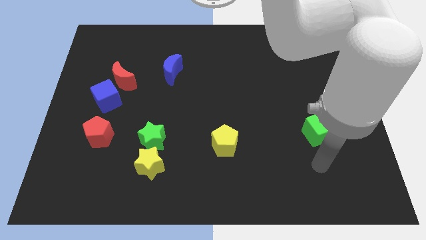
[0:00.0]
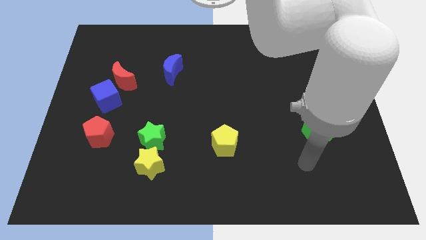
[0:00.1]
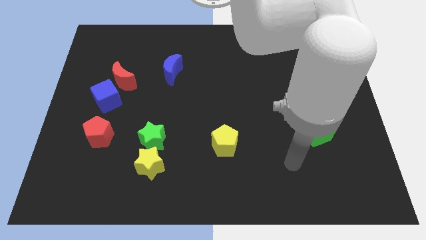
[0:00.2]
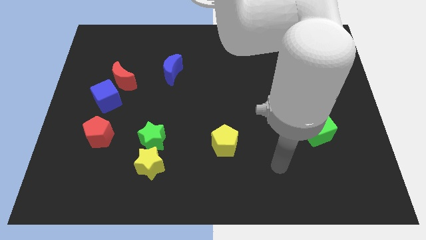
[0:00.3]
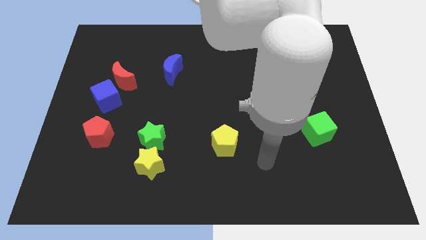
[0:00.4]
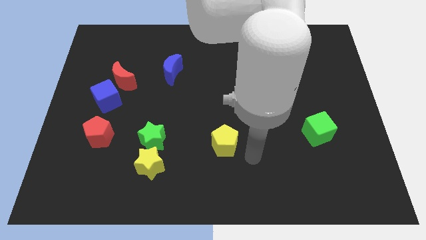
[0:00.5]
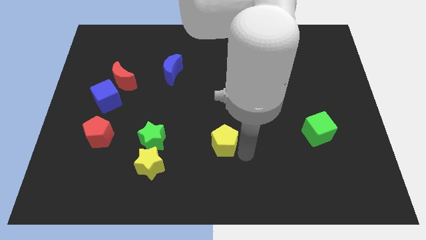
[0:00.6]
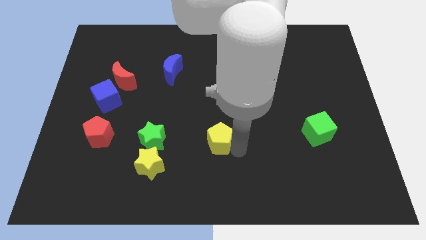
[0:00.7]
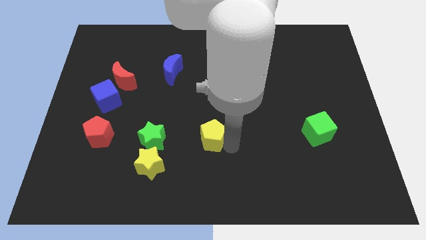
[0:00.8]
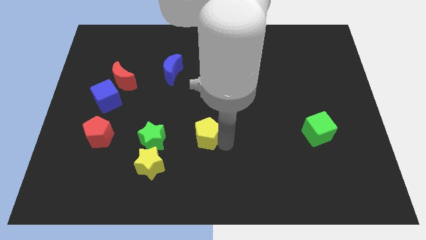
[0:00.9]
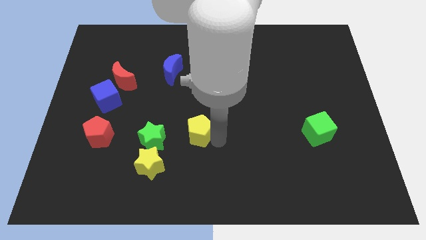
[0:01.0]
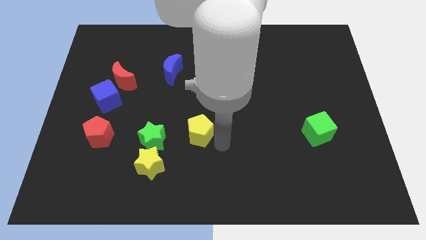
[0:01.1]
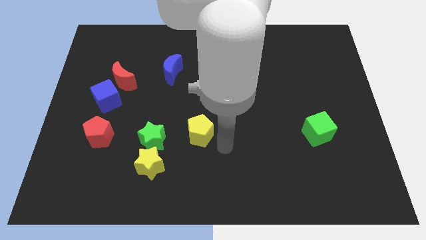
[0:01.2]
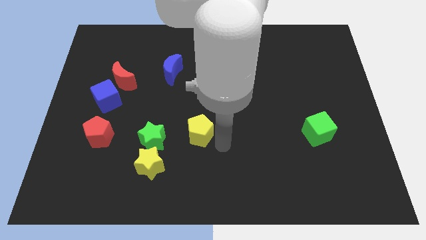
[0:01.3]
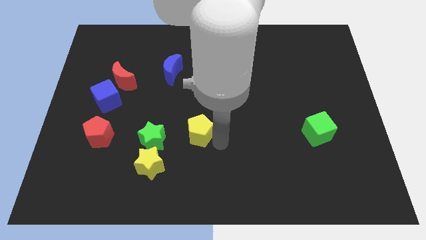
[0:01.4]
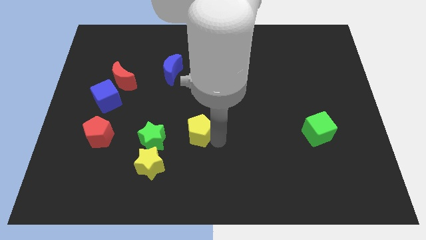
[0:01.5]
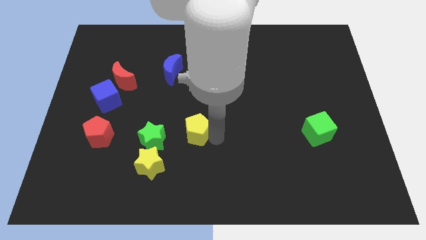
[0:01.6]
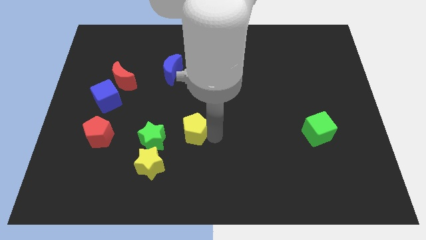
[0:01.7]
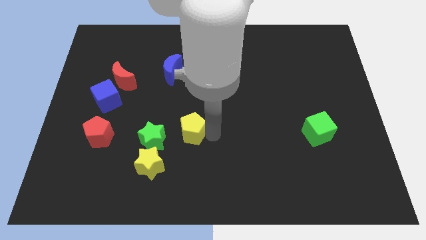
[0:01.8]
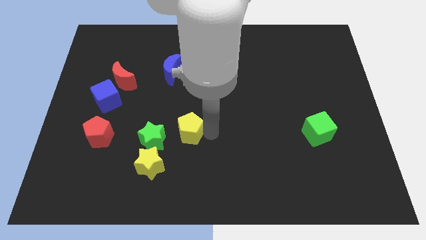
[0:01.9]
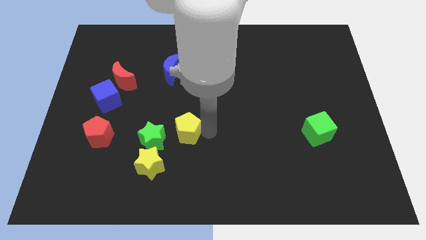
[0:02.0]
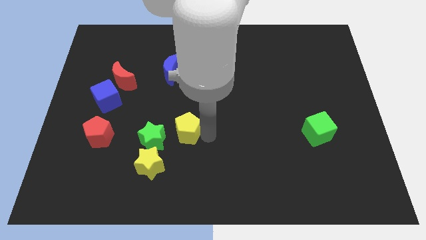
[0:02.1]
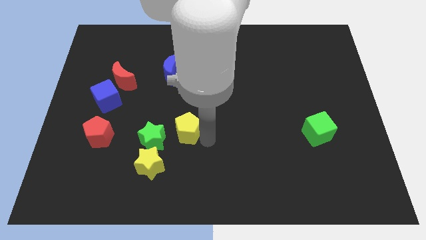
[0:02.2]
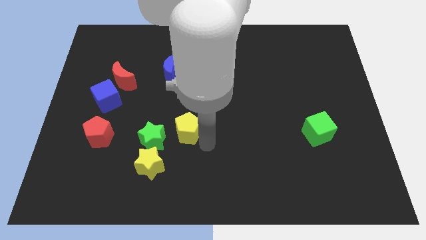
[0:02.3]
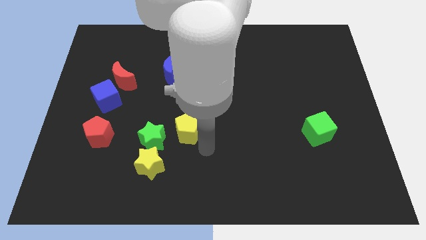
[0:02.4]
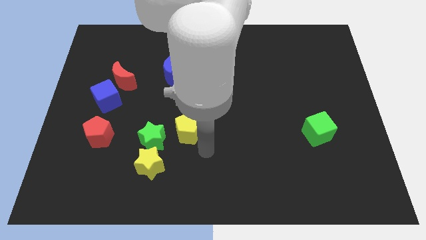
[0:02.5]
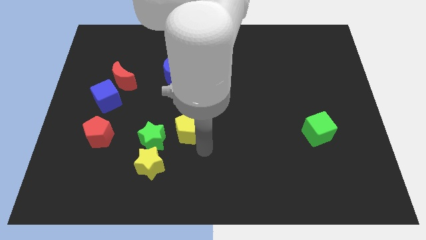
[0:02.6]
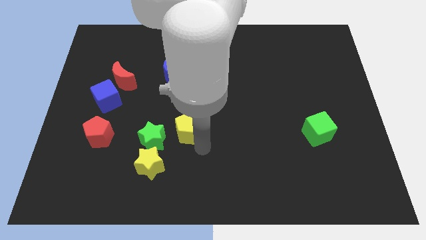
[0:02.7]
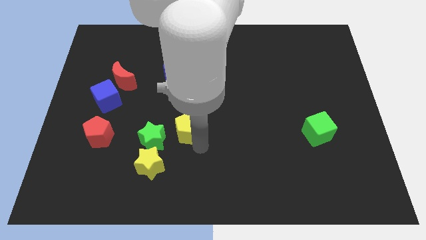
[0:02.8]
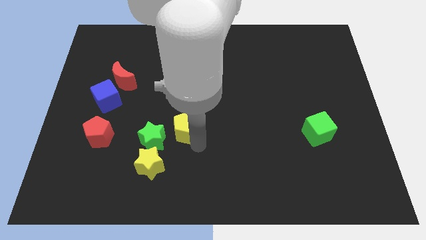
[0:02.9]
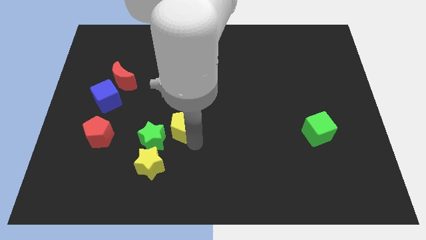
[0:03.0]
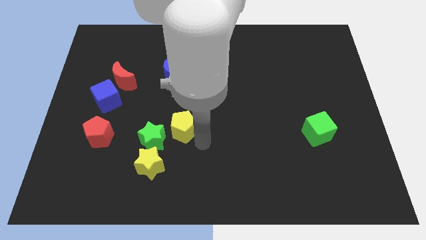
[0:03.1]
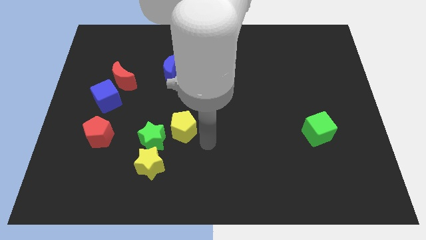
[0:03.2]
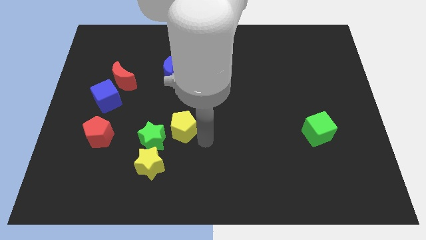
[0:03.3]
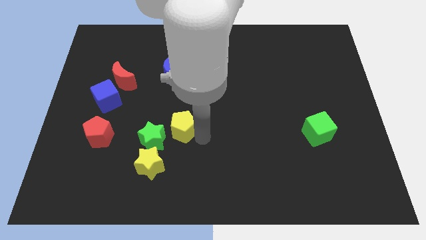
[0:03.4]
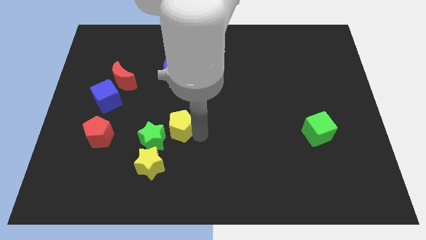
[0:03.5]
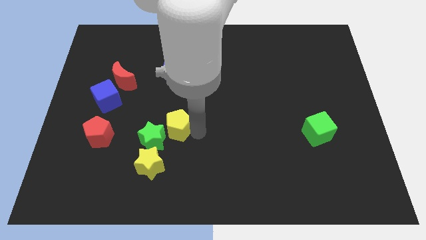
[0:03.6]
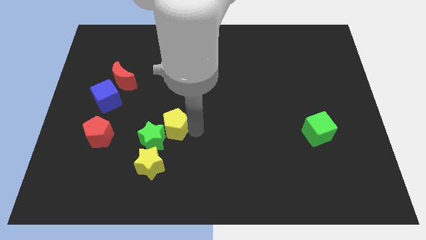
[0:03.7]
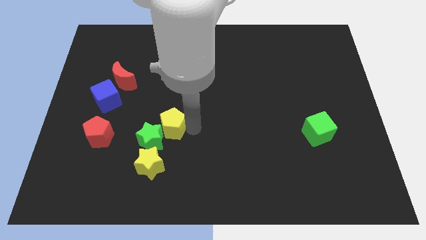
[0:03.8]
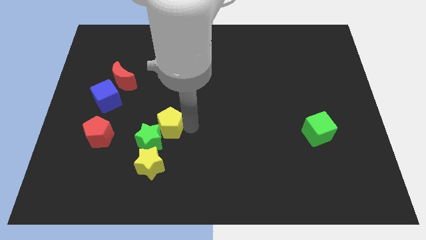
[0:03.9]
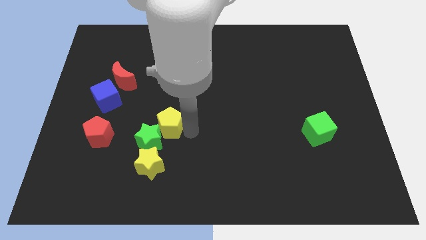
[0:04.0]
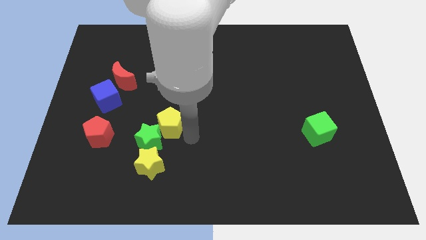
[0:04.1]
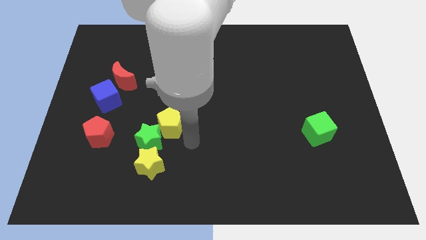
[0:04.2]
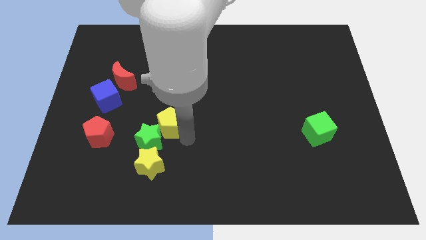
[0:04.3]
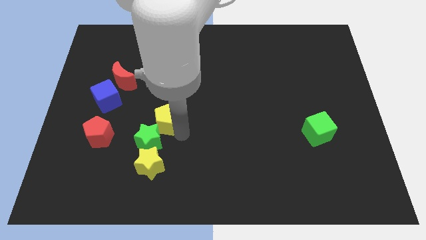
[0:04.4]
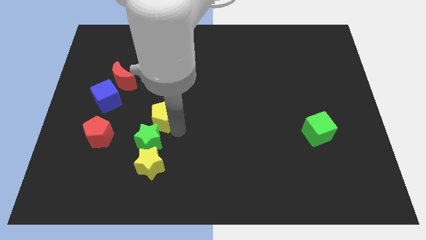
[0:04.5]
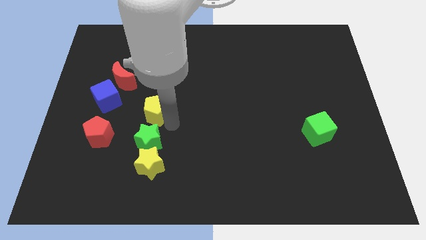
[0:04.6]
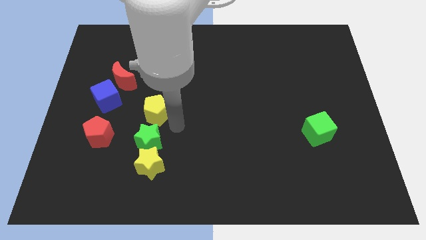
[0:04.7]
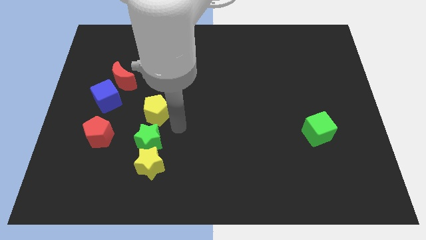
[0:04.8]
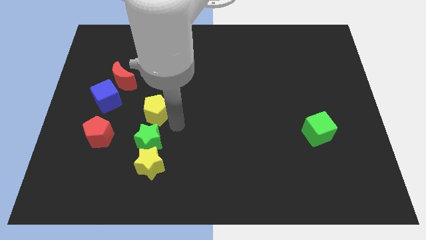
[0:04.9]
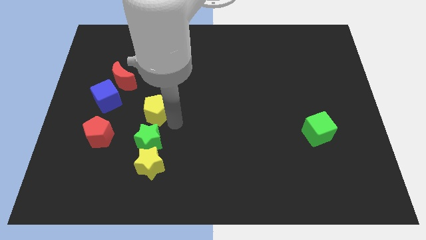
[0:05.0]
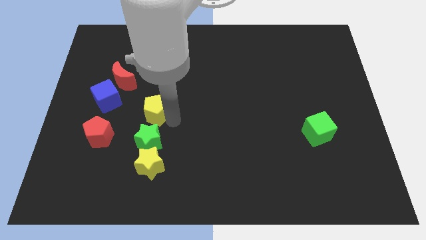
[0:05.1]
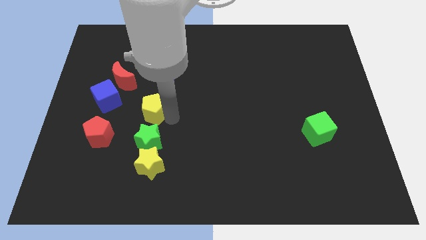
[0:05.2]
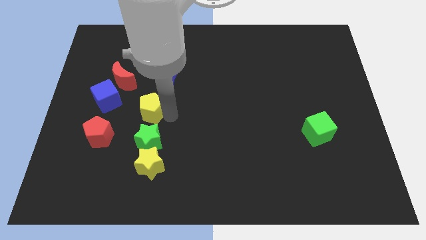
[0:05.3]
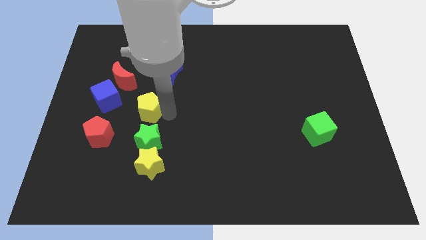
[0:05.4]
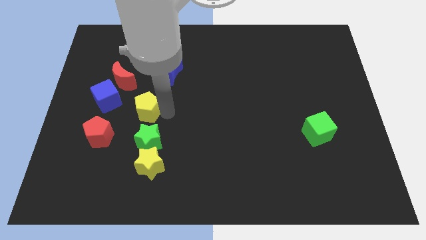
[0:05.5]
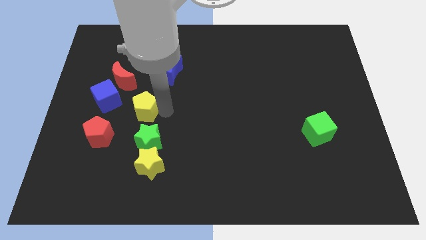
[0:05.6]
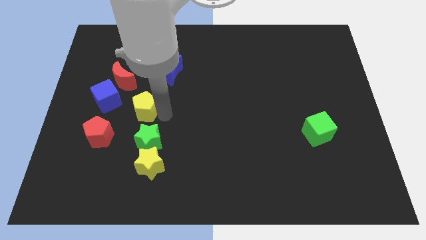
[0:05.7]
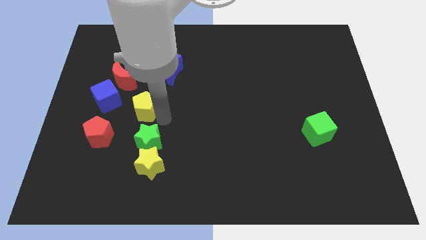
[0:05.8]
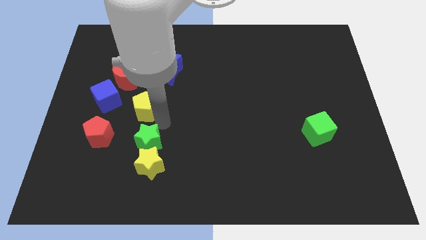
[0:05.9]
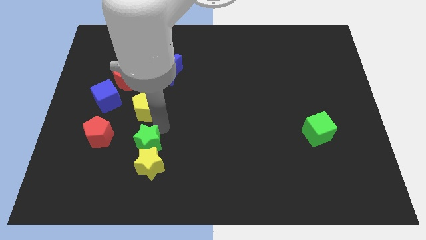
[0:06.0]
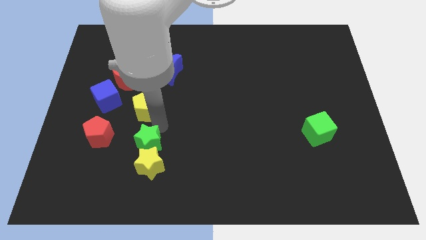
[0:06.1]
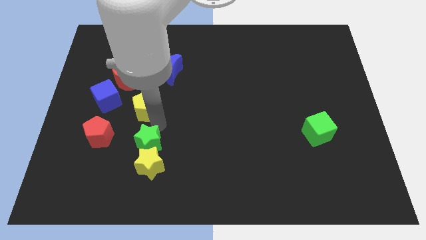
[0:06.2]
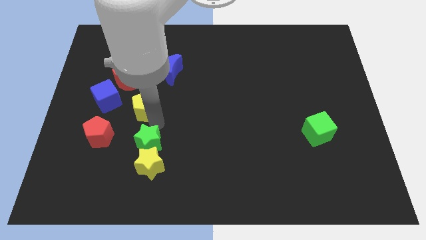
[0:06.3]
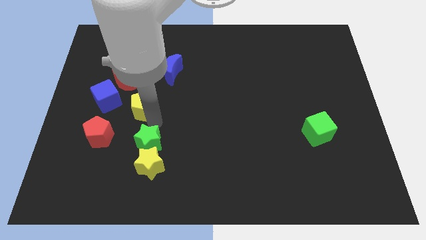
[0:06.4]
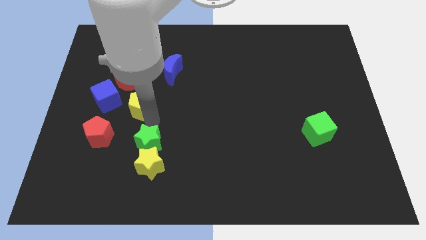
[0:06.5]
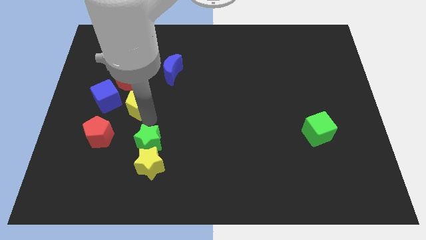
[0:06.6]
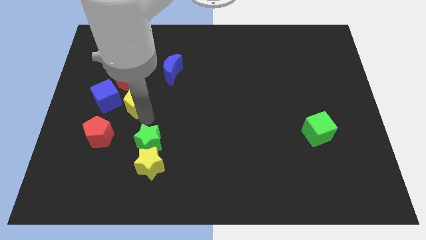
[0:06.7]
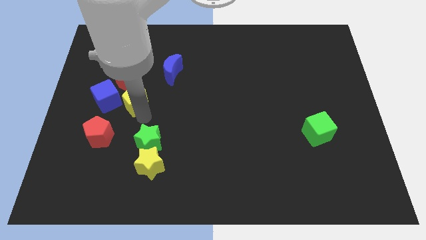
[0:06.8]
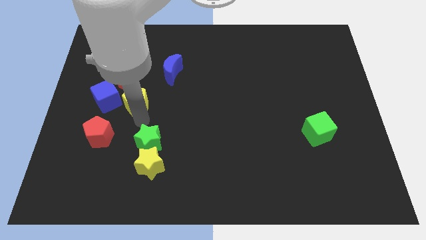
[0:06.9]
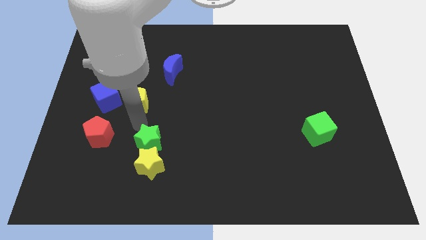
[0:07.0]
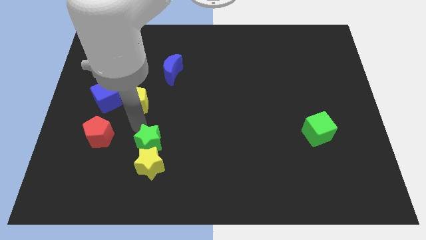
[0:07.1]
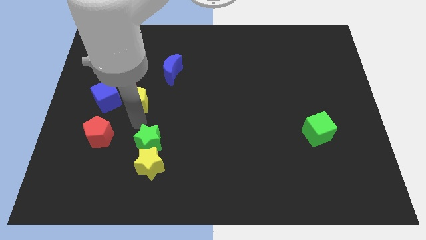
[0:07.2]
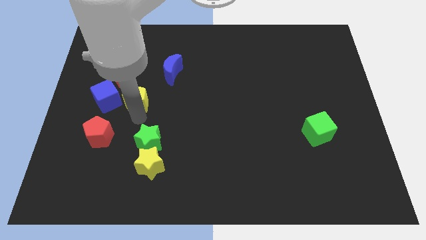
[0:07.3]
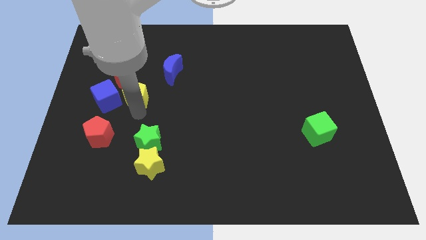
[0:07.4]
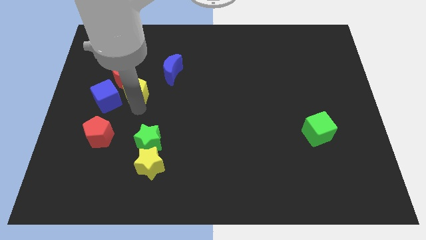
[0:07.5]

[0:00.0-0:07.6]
put the yellow pentagon next to the red moon
